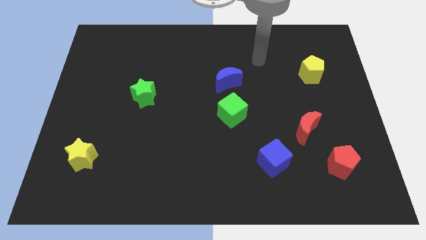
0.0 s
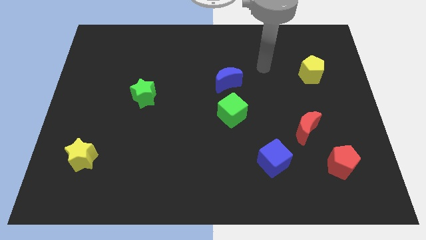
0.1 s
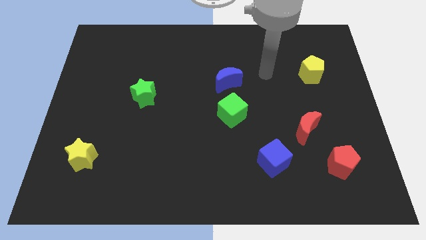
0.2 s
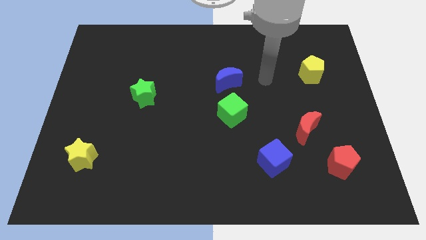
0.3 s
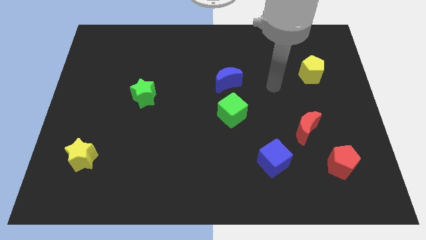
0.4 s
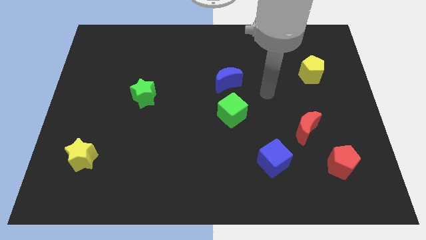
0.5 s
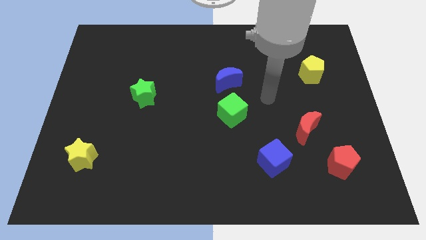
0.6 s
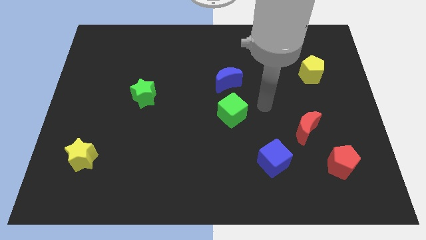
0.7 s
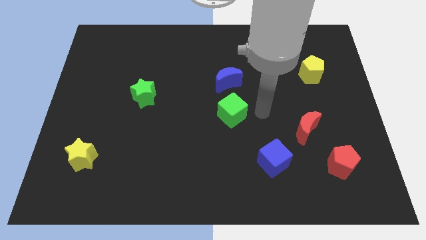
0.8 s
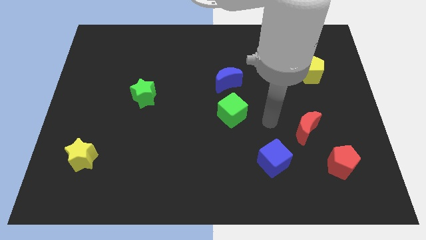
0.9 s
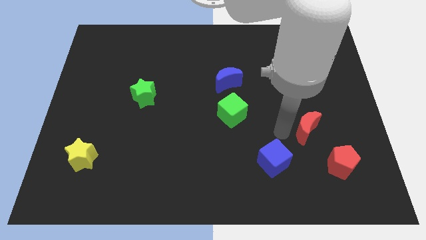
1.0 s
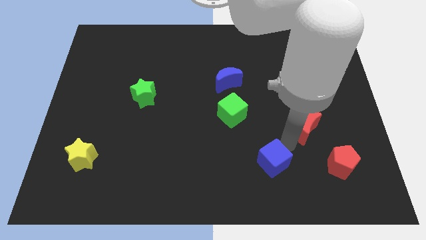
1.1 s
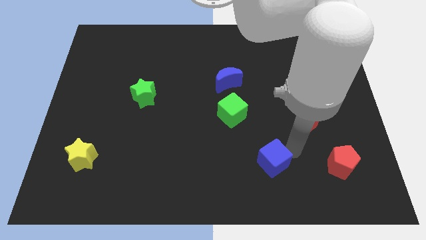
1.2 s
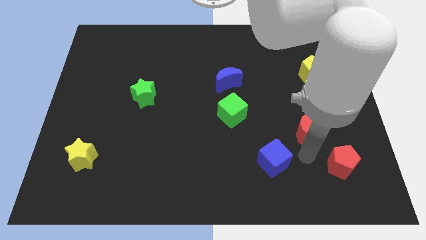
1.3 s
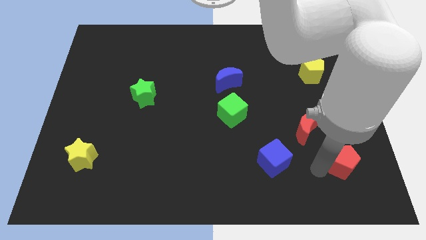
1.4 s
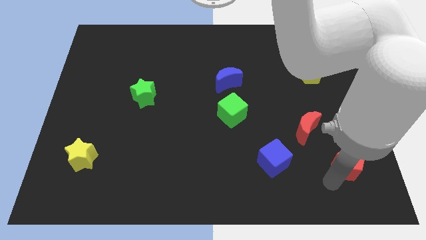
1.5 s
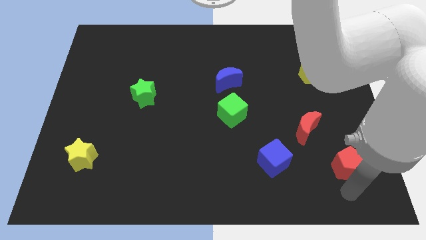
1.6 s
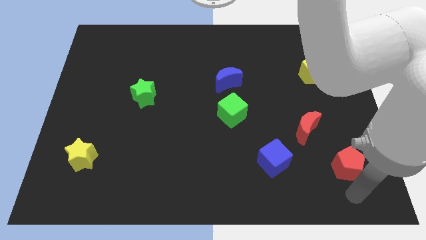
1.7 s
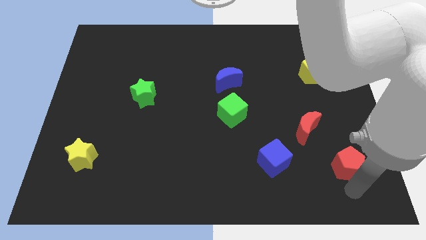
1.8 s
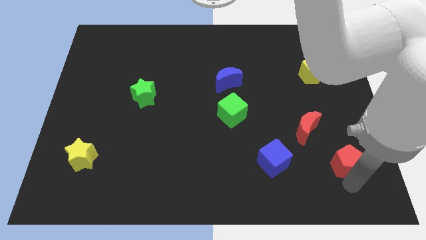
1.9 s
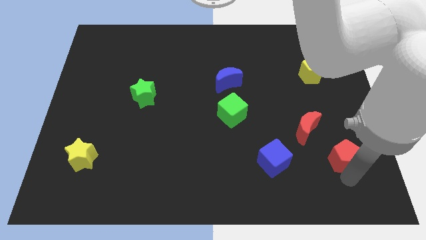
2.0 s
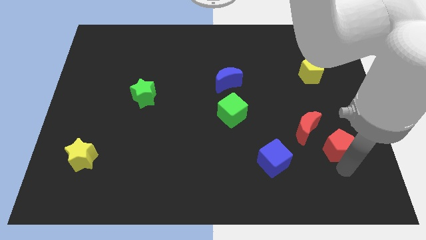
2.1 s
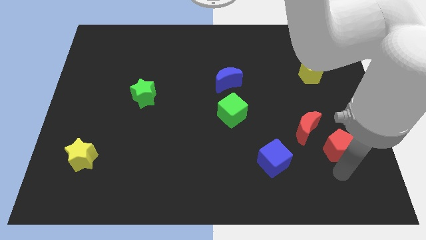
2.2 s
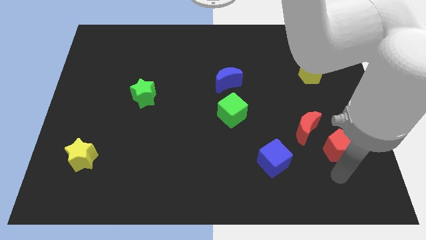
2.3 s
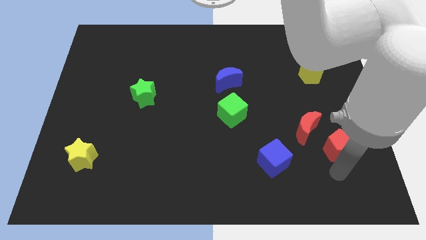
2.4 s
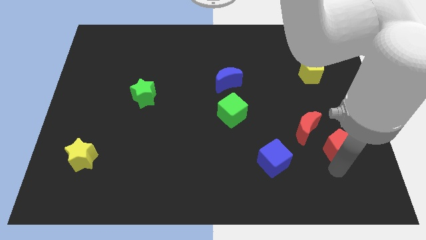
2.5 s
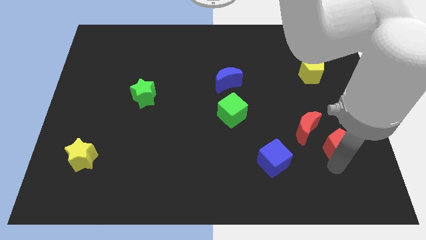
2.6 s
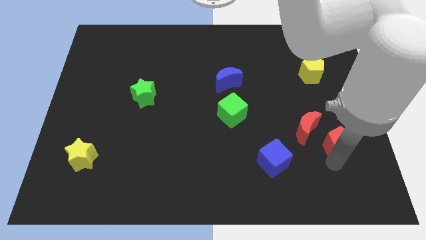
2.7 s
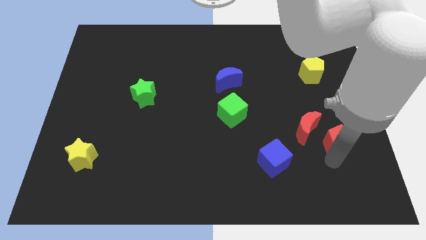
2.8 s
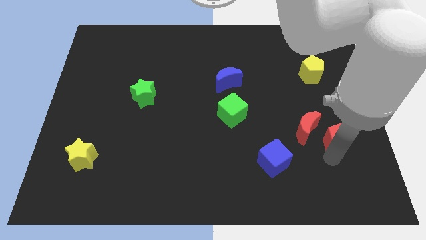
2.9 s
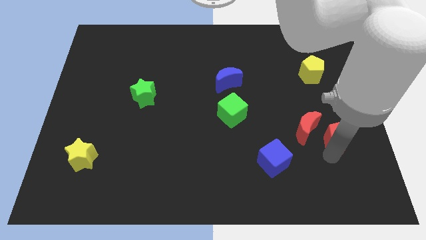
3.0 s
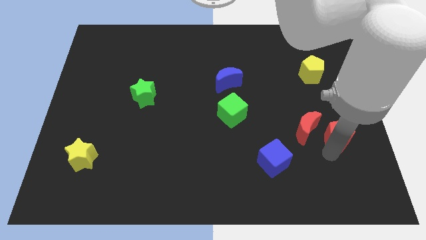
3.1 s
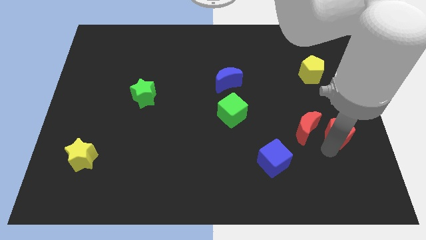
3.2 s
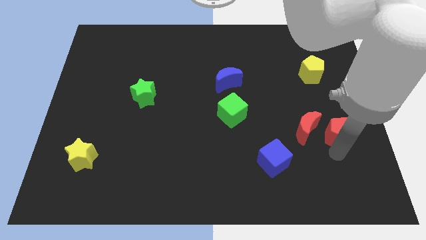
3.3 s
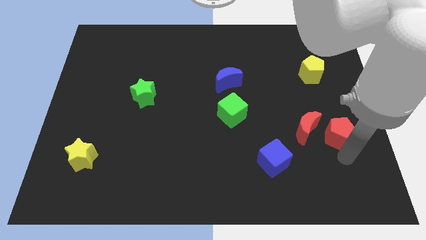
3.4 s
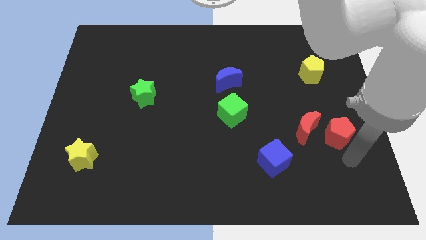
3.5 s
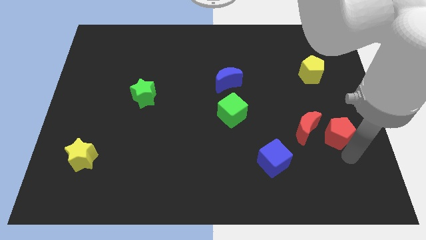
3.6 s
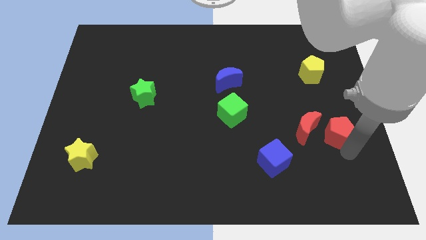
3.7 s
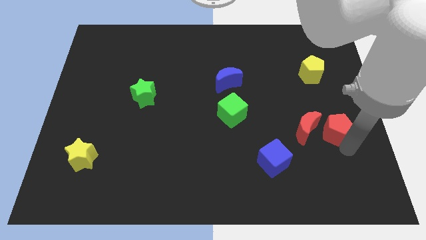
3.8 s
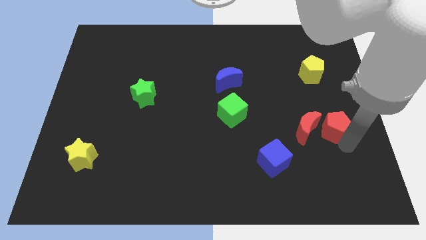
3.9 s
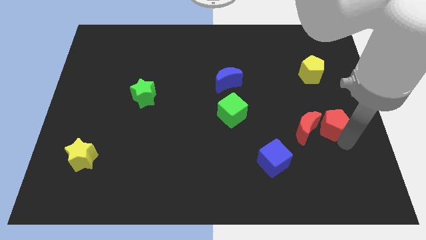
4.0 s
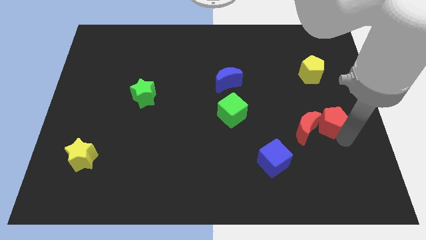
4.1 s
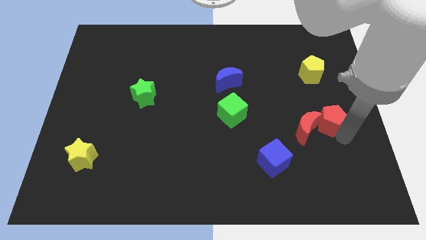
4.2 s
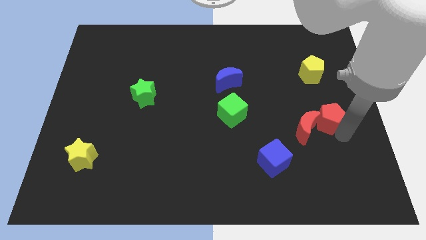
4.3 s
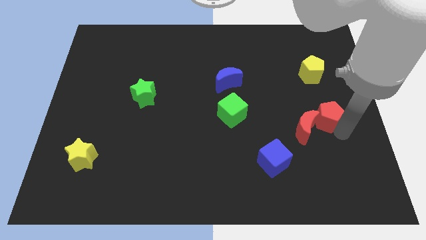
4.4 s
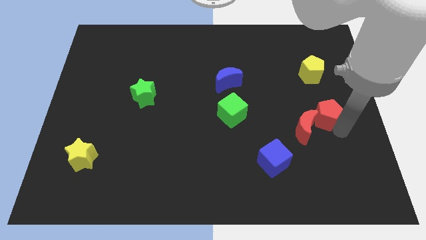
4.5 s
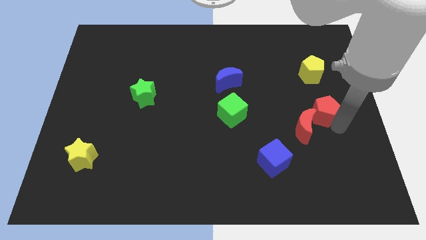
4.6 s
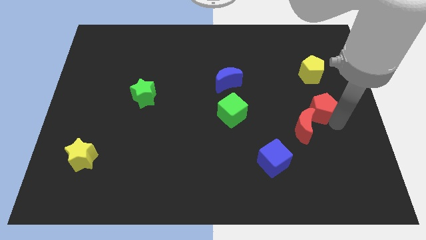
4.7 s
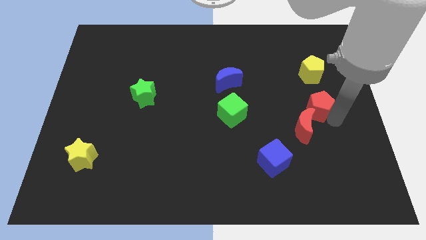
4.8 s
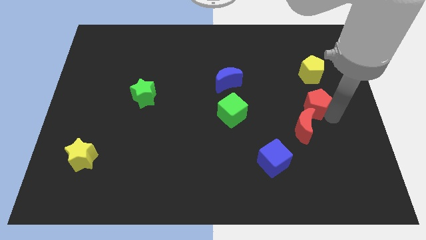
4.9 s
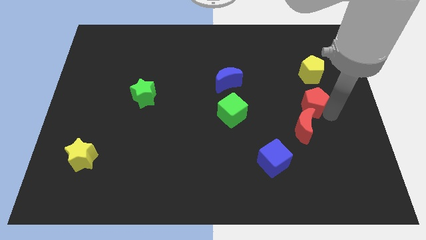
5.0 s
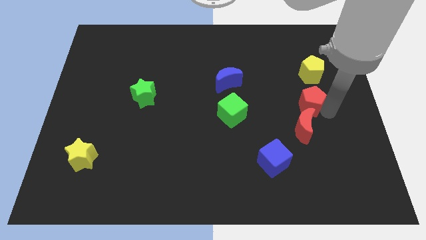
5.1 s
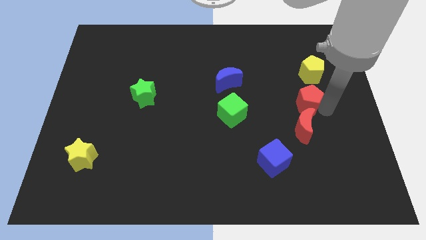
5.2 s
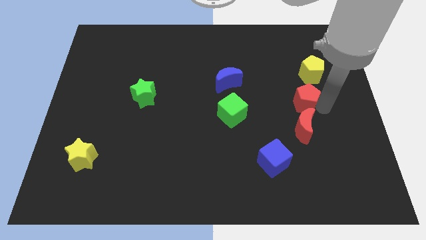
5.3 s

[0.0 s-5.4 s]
move the red pentagon to the bottom left of the yellow pentagon
